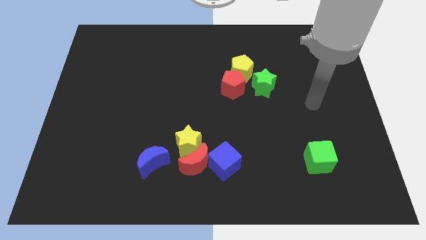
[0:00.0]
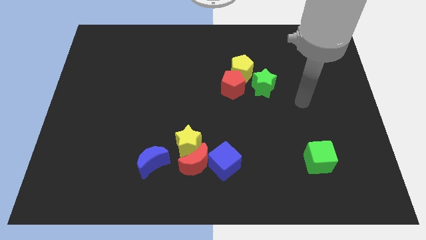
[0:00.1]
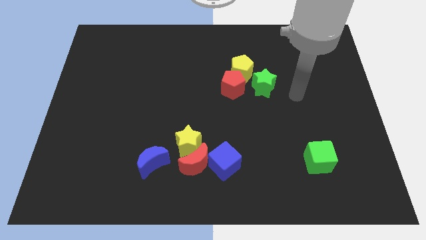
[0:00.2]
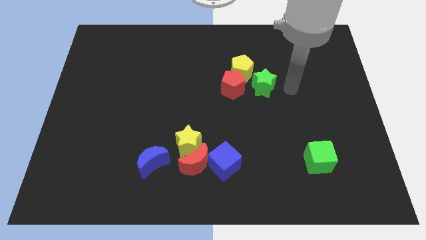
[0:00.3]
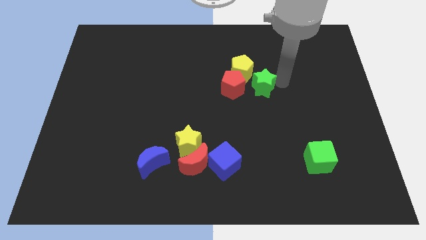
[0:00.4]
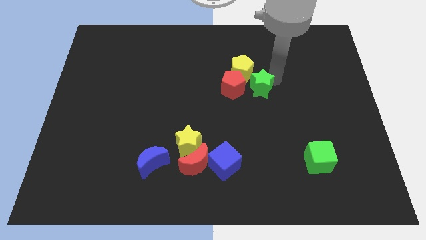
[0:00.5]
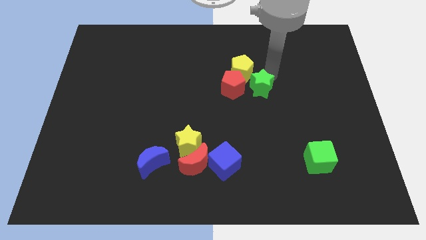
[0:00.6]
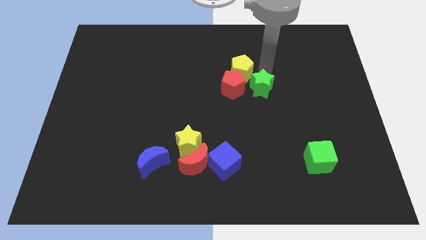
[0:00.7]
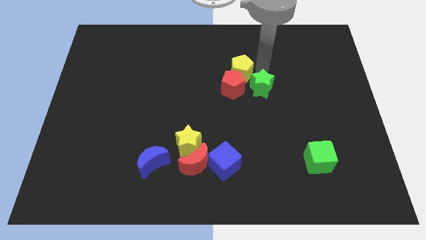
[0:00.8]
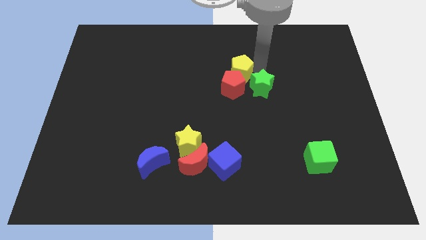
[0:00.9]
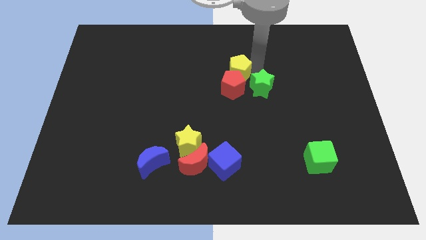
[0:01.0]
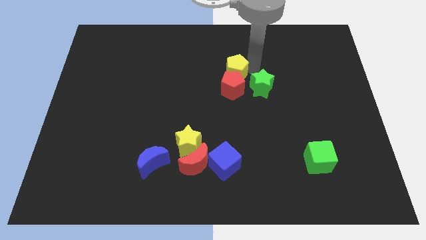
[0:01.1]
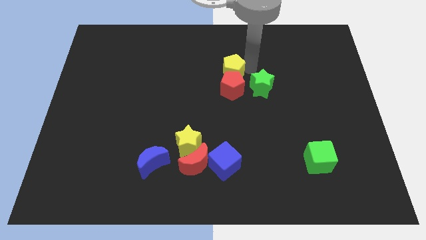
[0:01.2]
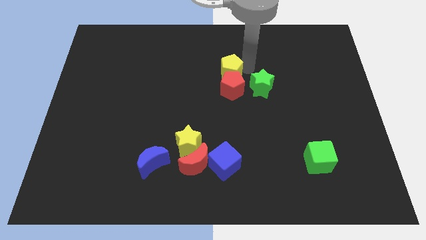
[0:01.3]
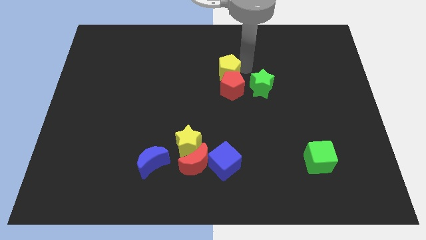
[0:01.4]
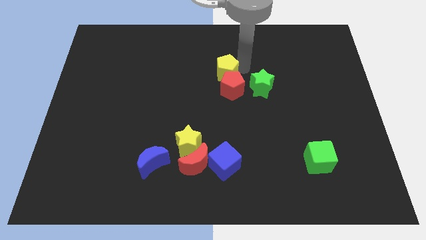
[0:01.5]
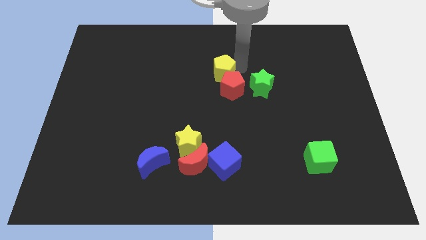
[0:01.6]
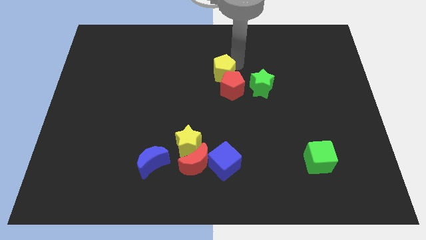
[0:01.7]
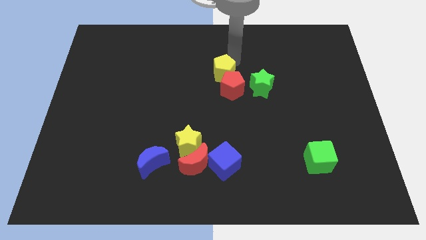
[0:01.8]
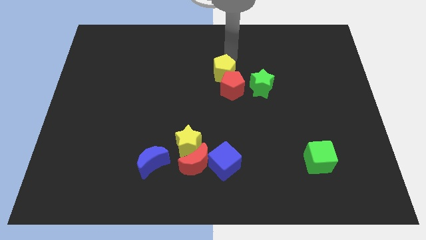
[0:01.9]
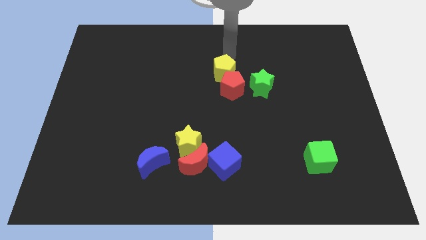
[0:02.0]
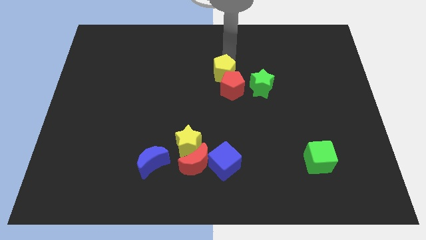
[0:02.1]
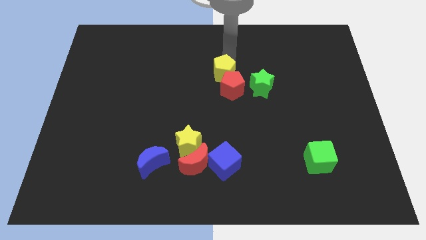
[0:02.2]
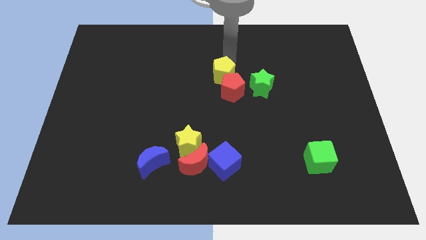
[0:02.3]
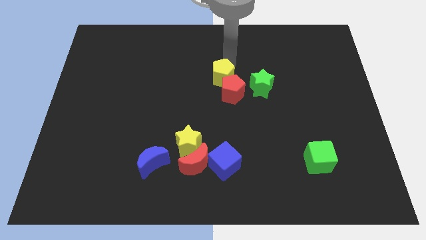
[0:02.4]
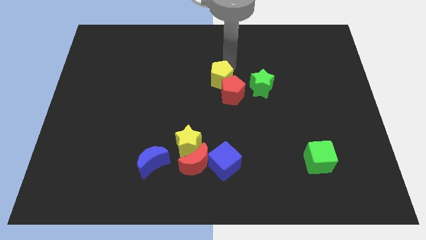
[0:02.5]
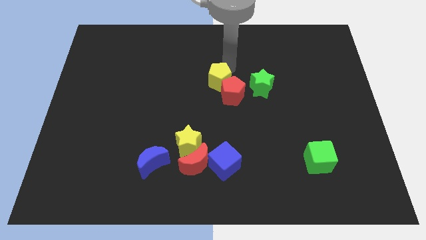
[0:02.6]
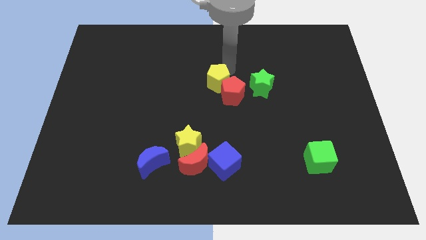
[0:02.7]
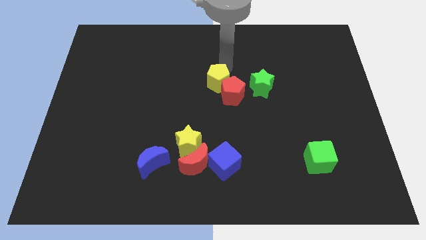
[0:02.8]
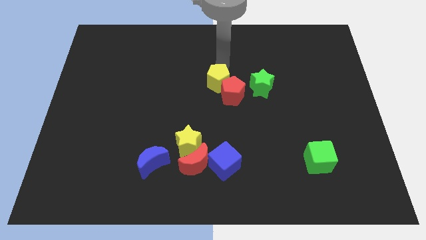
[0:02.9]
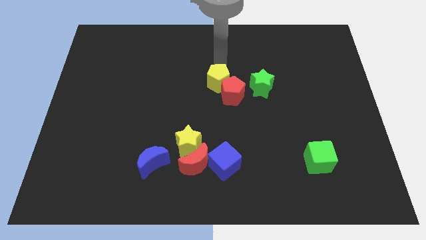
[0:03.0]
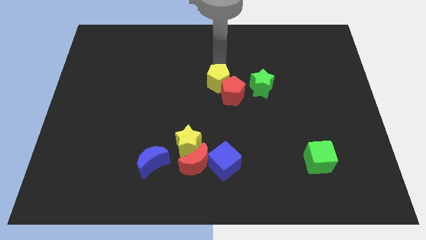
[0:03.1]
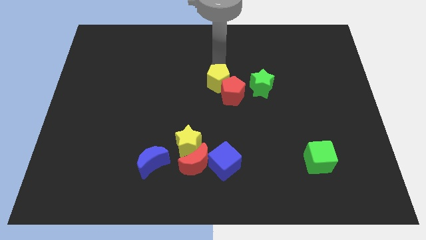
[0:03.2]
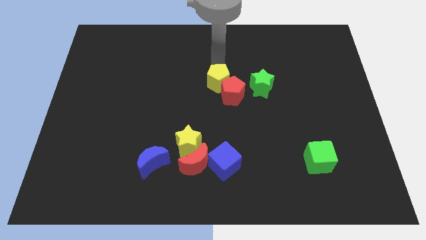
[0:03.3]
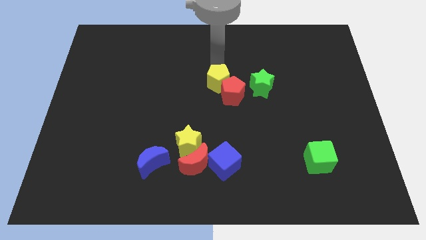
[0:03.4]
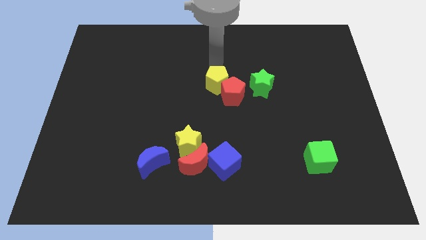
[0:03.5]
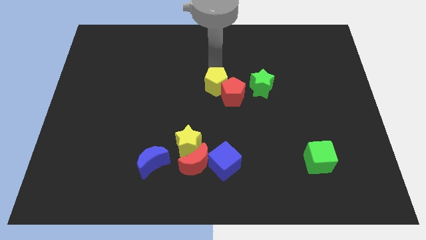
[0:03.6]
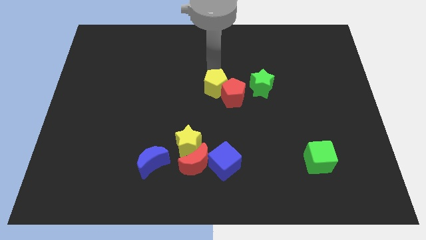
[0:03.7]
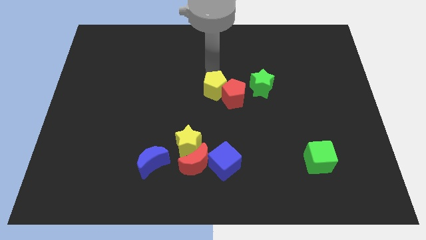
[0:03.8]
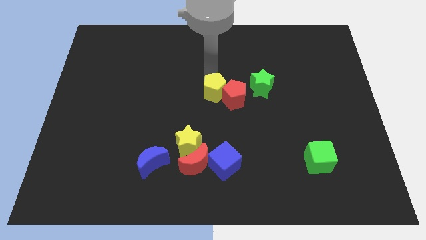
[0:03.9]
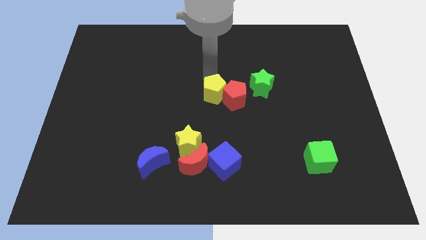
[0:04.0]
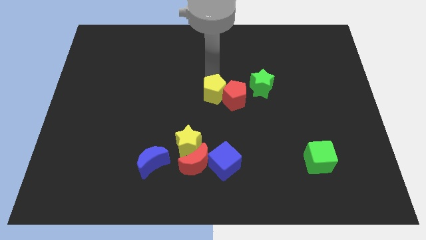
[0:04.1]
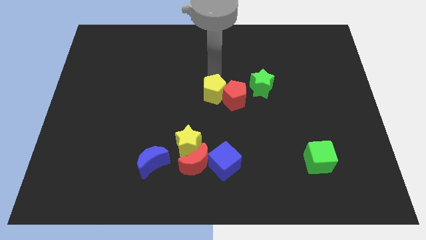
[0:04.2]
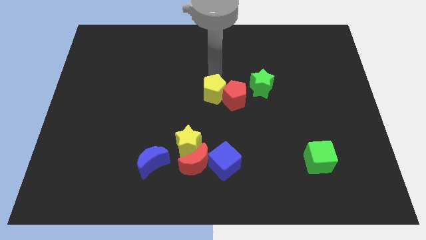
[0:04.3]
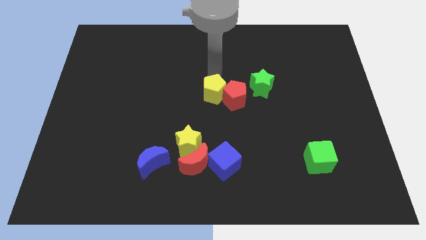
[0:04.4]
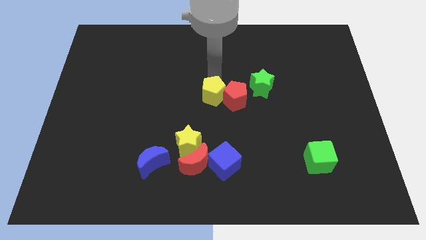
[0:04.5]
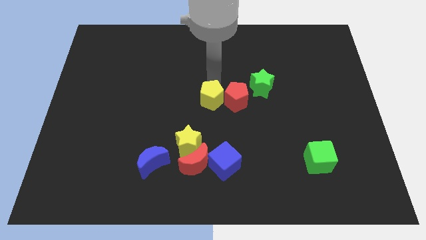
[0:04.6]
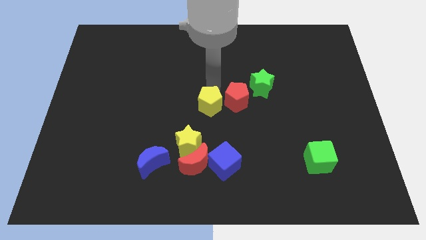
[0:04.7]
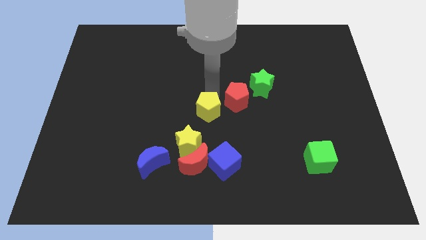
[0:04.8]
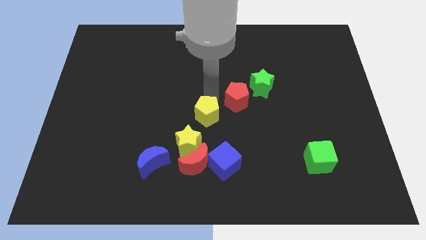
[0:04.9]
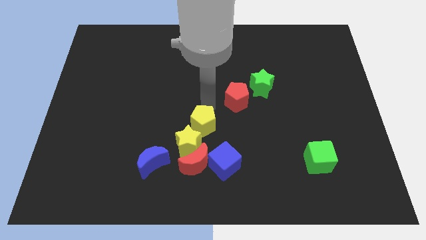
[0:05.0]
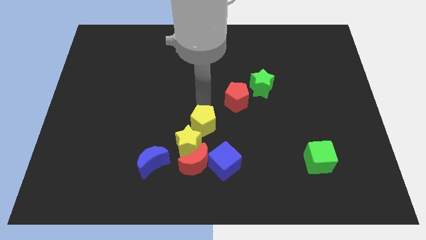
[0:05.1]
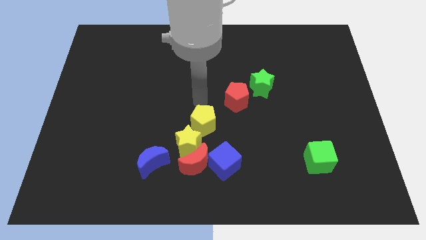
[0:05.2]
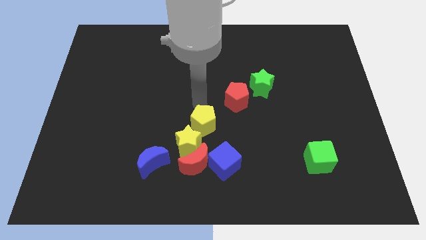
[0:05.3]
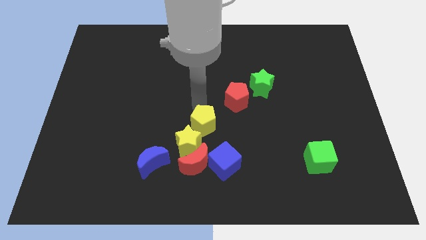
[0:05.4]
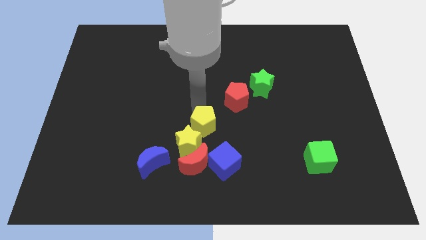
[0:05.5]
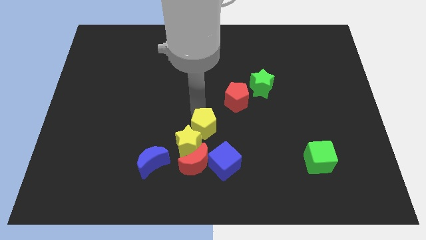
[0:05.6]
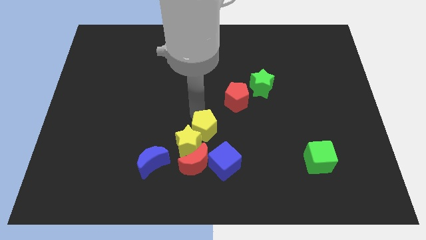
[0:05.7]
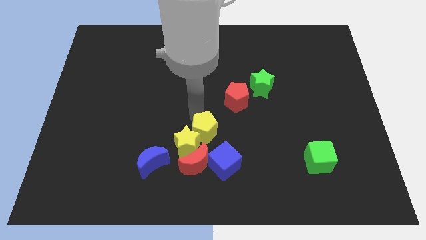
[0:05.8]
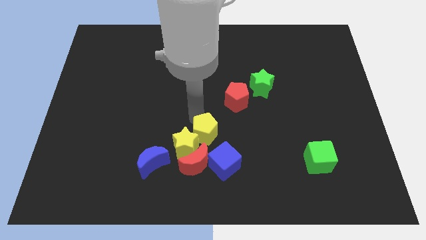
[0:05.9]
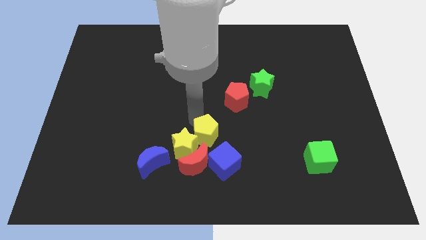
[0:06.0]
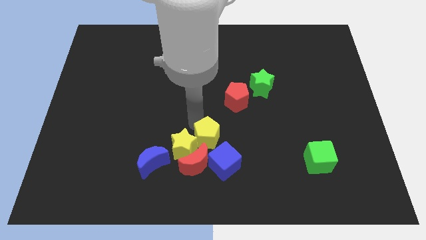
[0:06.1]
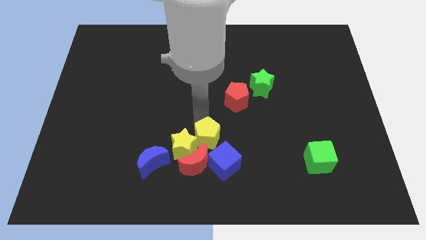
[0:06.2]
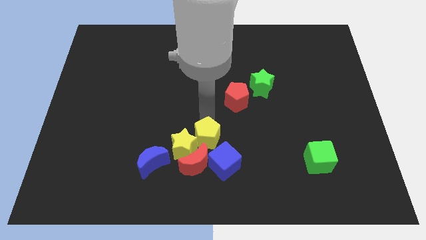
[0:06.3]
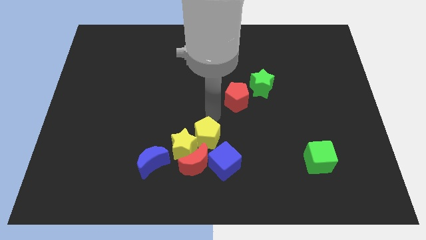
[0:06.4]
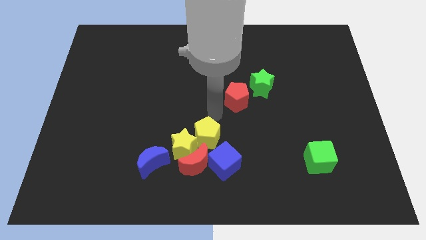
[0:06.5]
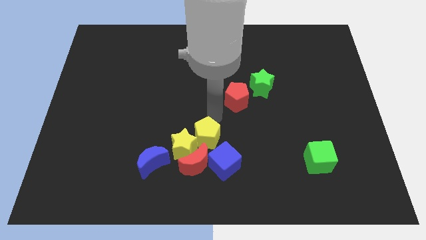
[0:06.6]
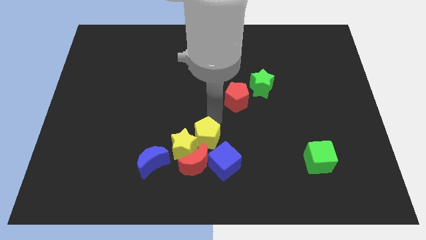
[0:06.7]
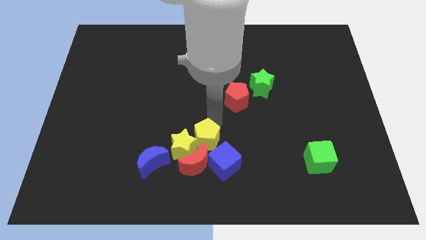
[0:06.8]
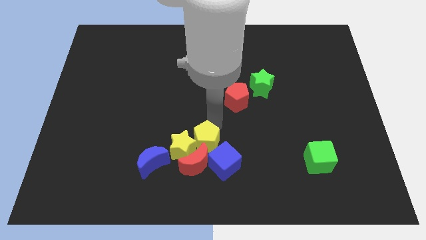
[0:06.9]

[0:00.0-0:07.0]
slide the yellow pentagon towards the red moon
